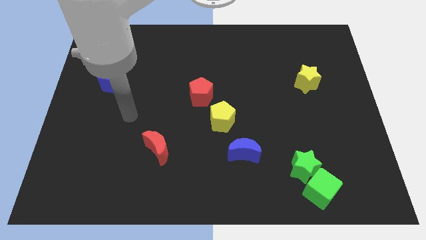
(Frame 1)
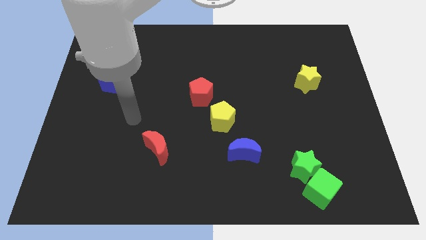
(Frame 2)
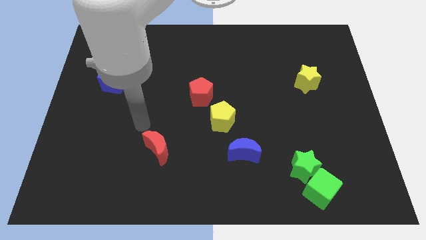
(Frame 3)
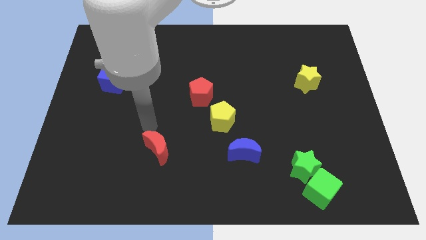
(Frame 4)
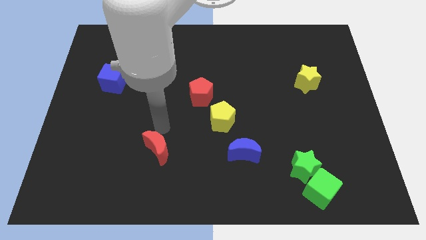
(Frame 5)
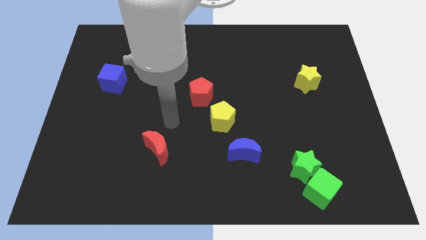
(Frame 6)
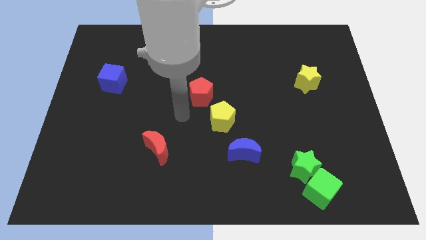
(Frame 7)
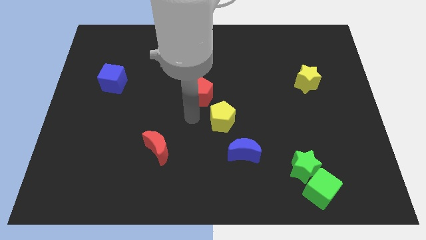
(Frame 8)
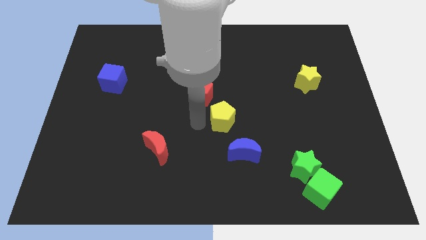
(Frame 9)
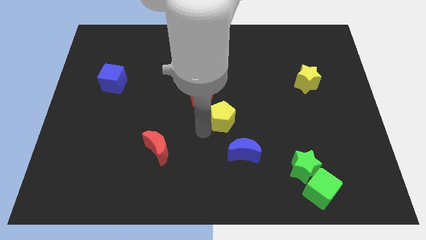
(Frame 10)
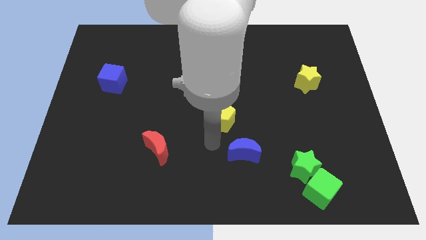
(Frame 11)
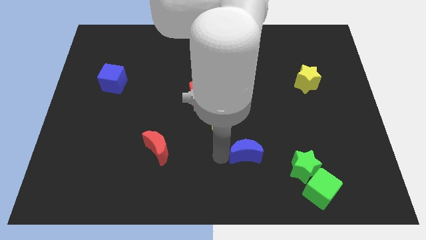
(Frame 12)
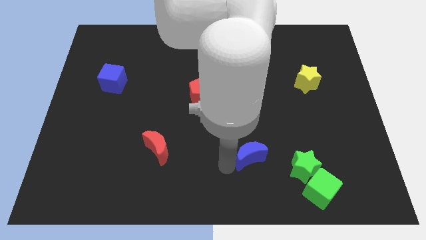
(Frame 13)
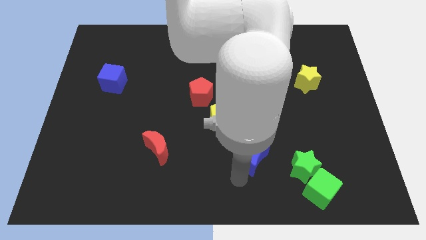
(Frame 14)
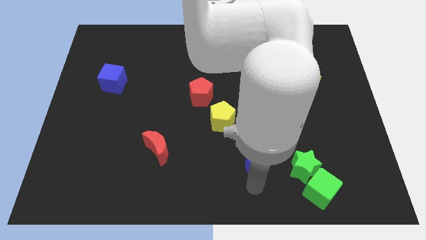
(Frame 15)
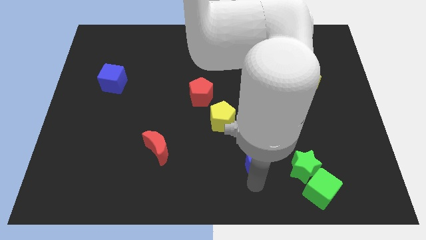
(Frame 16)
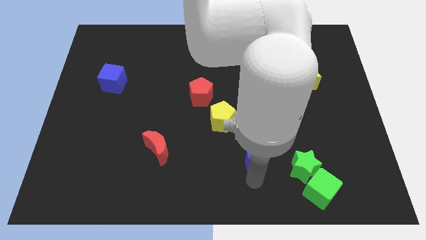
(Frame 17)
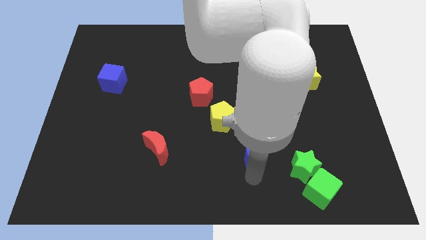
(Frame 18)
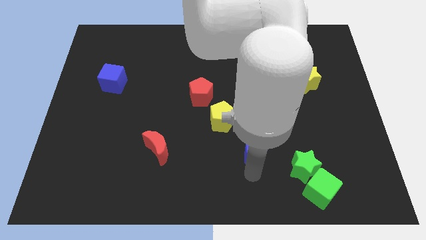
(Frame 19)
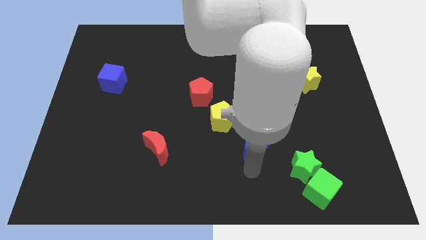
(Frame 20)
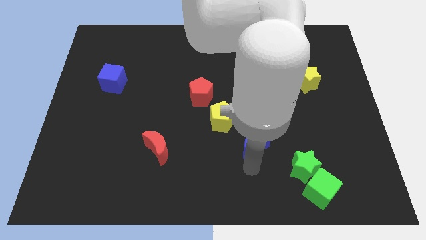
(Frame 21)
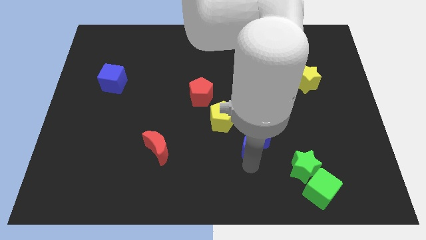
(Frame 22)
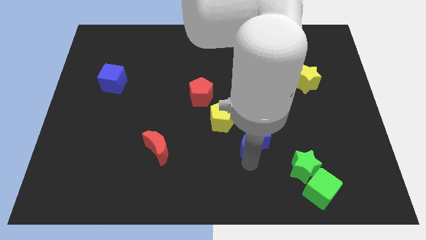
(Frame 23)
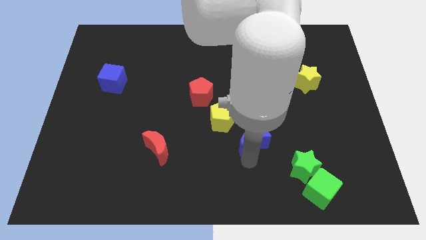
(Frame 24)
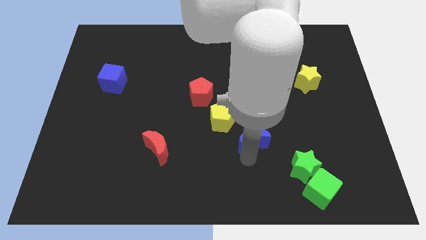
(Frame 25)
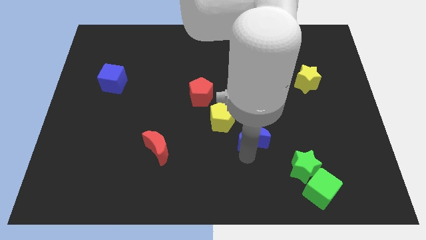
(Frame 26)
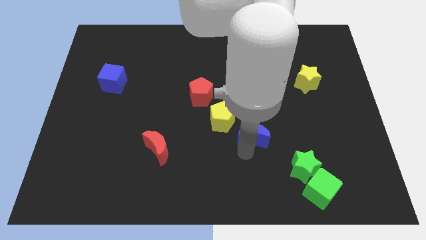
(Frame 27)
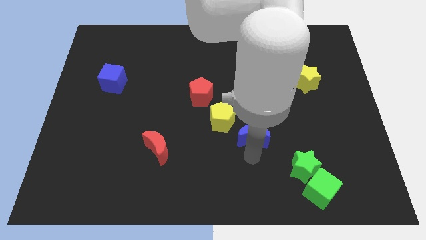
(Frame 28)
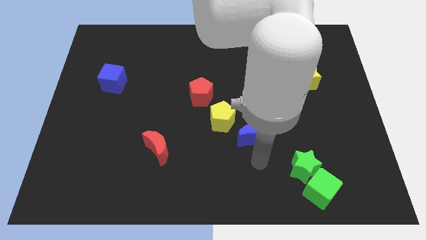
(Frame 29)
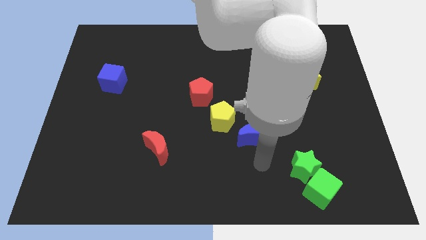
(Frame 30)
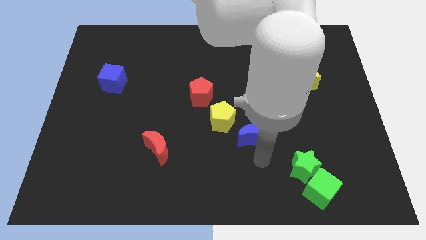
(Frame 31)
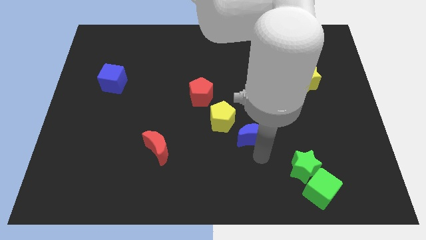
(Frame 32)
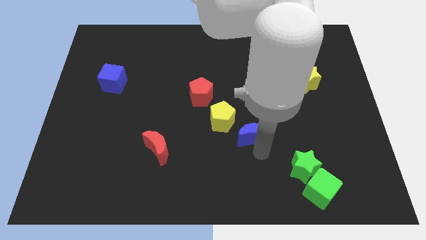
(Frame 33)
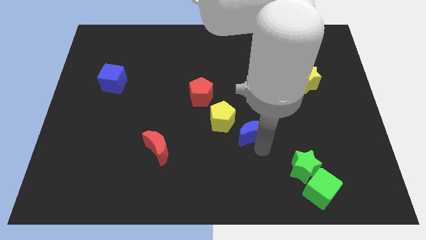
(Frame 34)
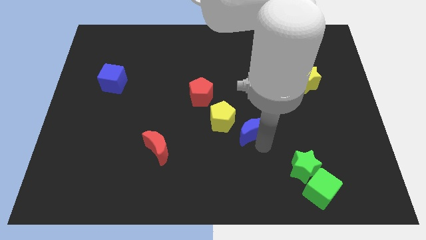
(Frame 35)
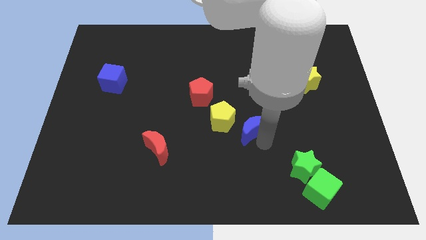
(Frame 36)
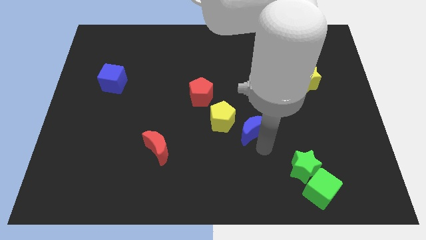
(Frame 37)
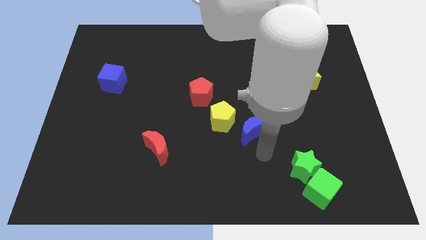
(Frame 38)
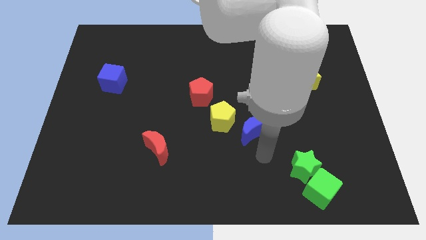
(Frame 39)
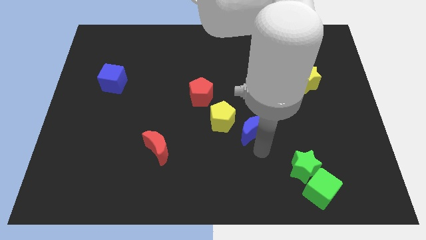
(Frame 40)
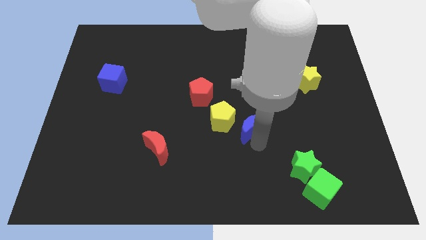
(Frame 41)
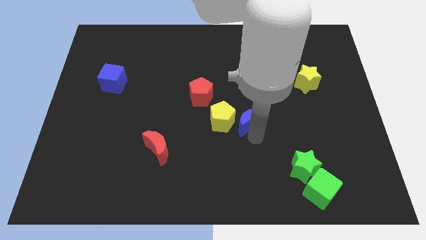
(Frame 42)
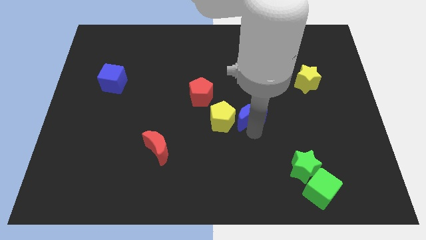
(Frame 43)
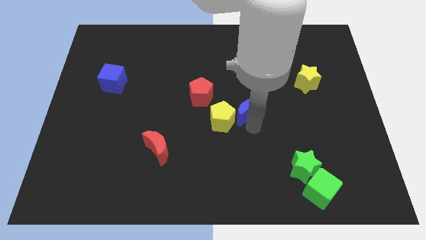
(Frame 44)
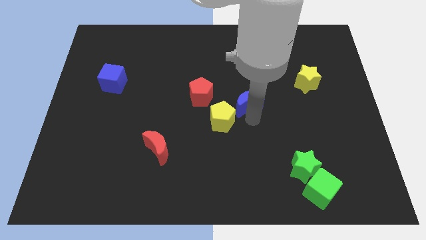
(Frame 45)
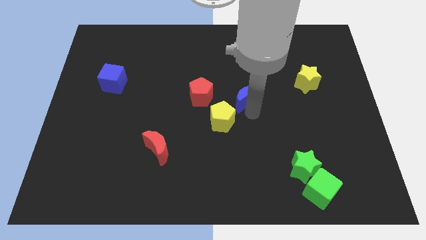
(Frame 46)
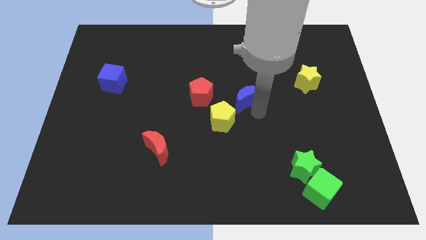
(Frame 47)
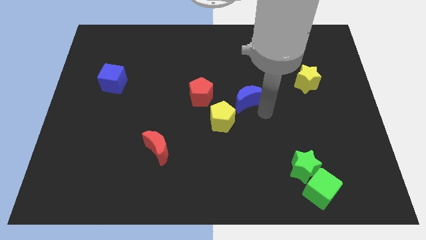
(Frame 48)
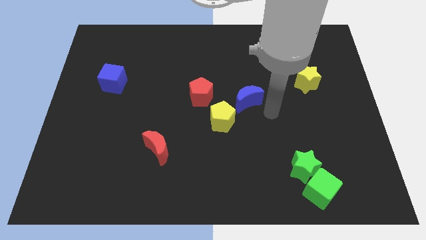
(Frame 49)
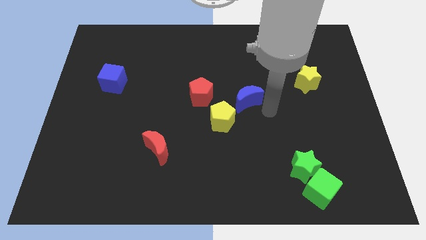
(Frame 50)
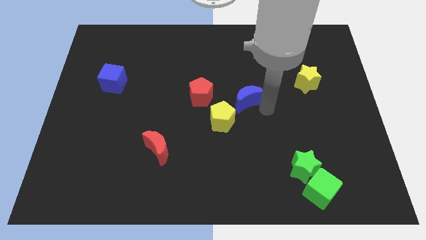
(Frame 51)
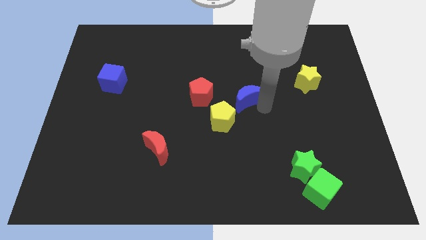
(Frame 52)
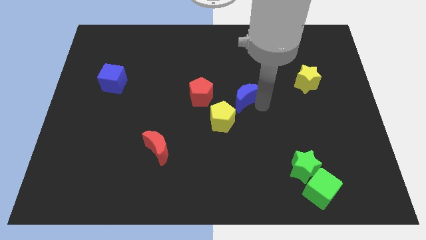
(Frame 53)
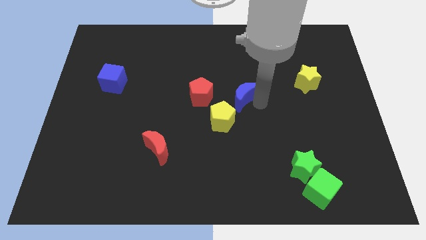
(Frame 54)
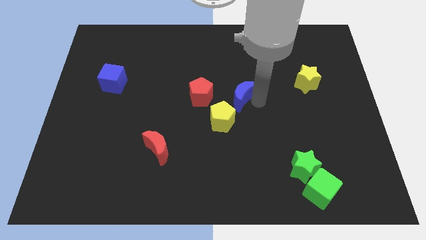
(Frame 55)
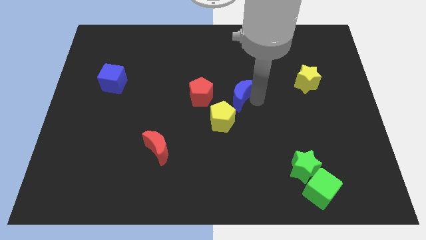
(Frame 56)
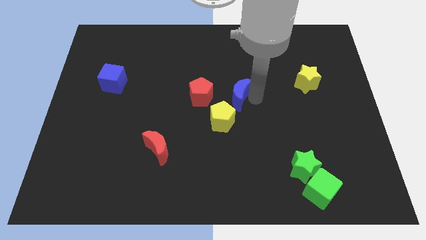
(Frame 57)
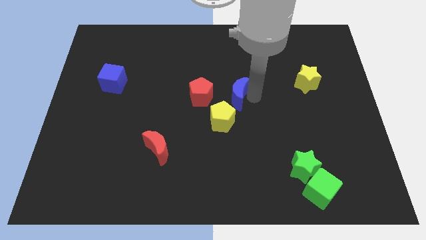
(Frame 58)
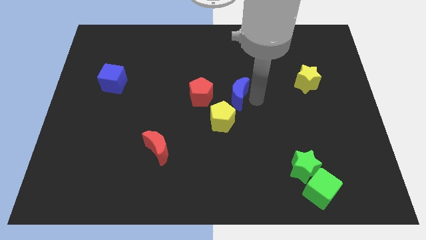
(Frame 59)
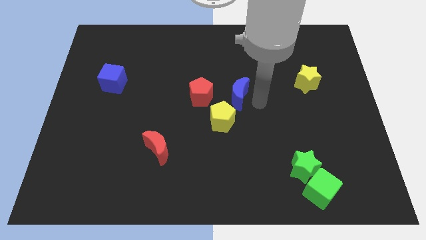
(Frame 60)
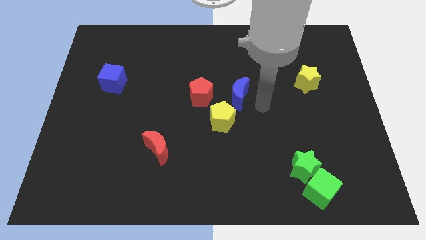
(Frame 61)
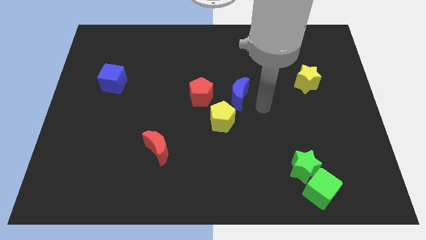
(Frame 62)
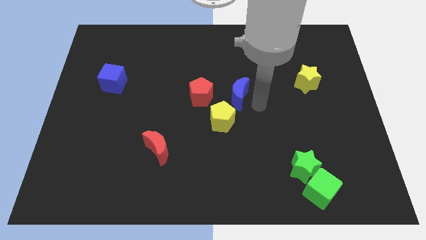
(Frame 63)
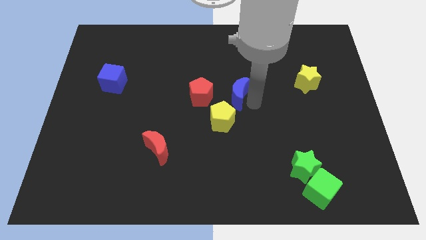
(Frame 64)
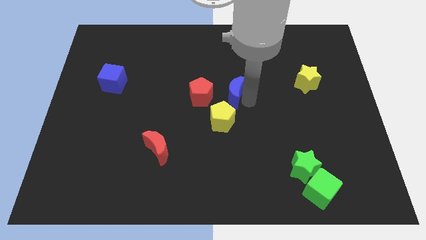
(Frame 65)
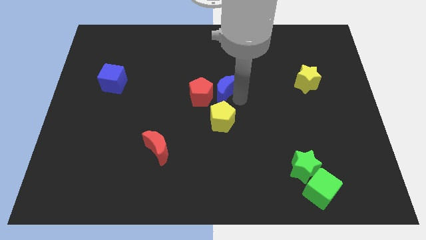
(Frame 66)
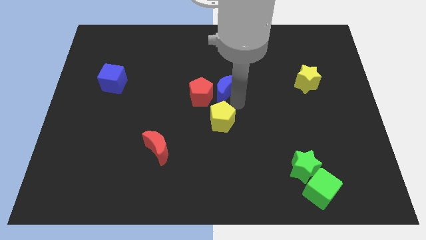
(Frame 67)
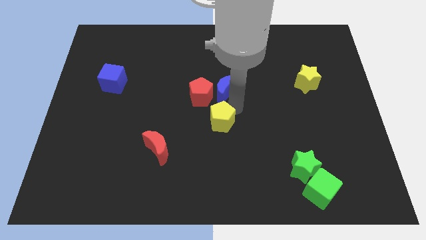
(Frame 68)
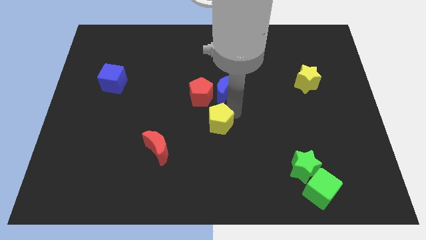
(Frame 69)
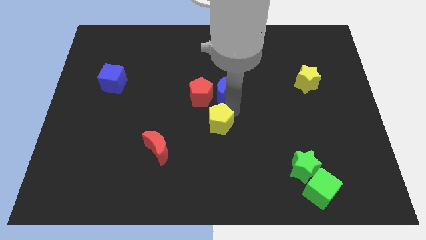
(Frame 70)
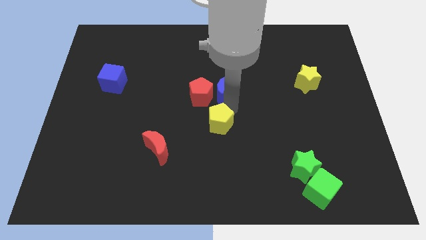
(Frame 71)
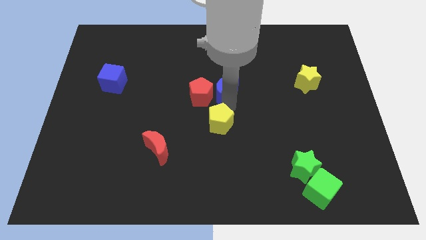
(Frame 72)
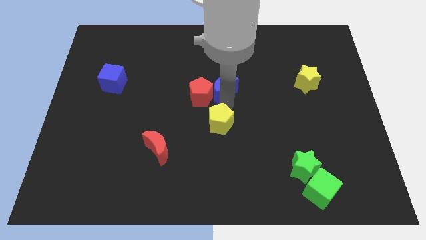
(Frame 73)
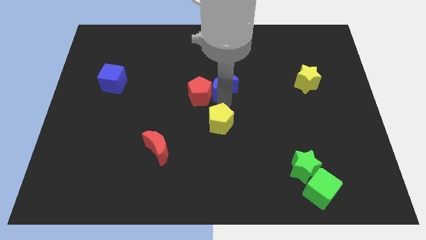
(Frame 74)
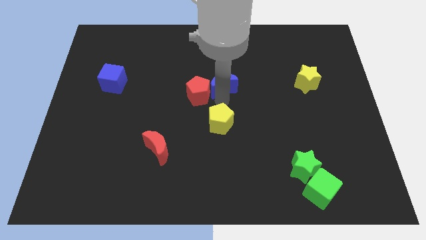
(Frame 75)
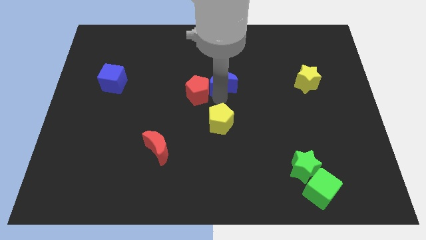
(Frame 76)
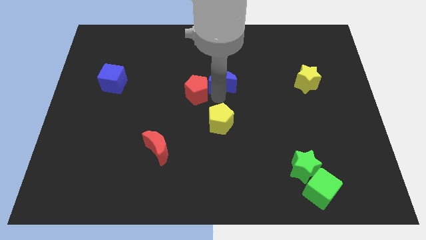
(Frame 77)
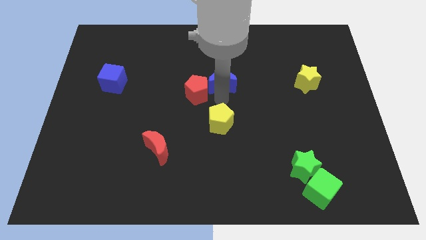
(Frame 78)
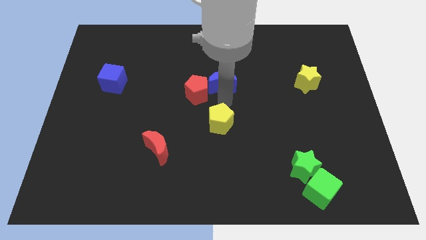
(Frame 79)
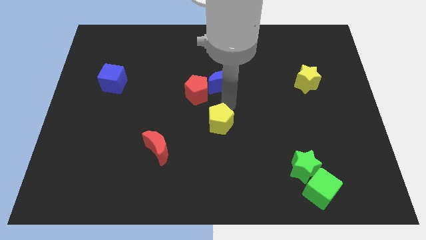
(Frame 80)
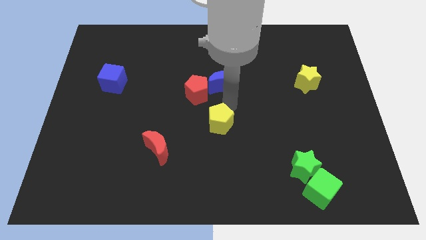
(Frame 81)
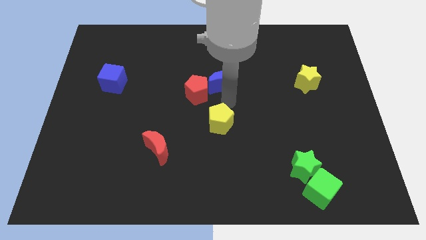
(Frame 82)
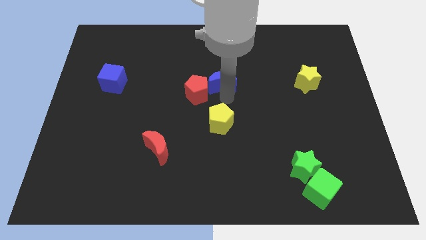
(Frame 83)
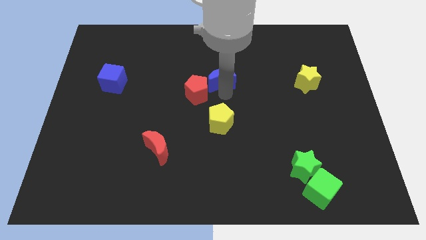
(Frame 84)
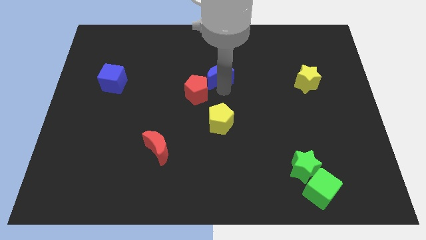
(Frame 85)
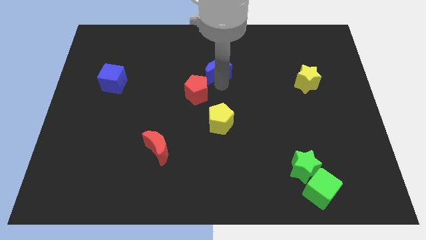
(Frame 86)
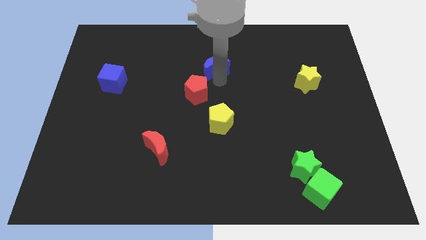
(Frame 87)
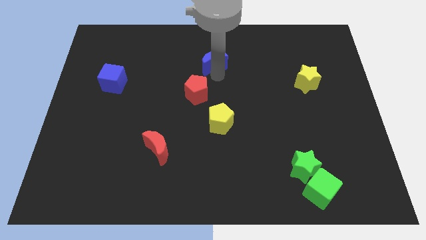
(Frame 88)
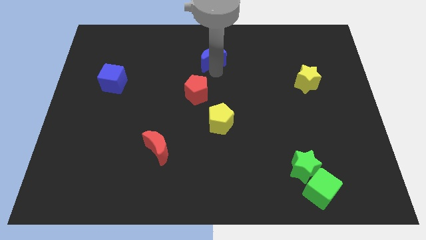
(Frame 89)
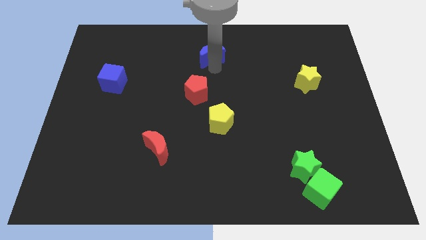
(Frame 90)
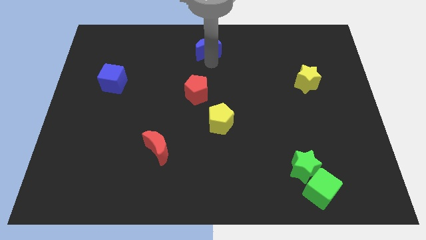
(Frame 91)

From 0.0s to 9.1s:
put the blue moon to the top side
